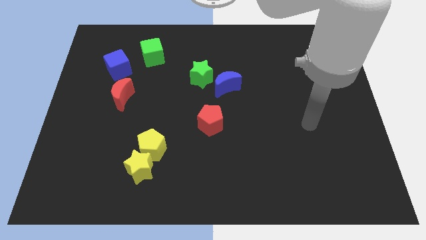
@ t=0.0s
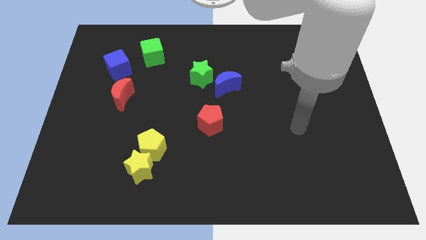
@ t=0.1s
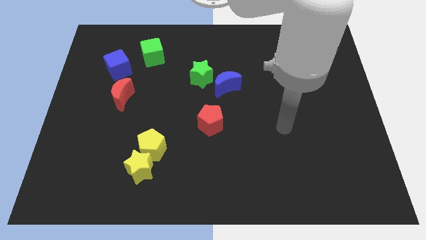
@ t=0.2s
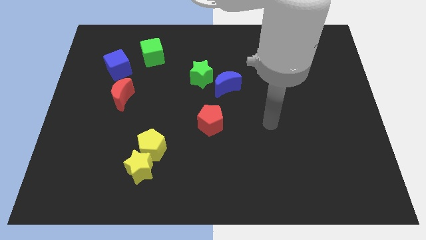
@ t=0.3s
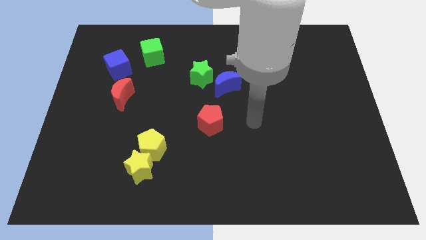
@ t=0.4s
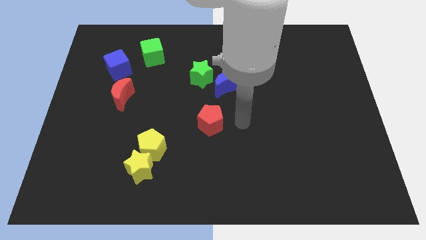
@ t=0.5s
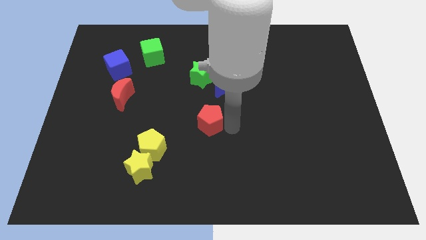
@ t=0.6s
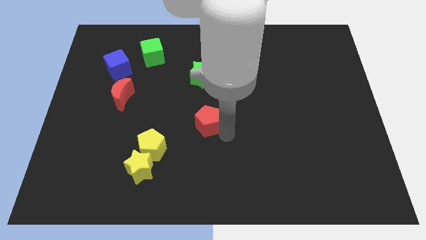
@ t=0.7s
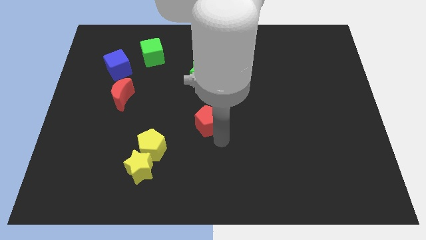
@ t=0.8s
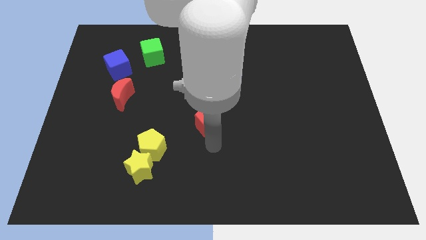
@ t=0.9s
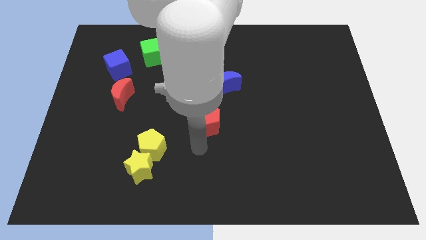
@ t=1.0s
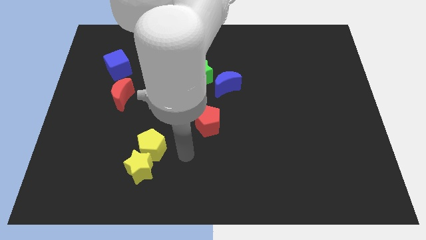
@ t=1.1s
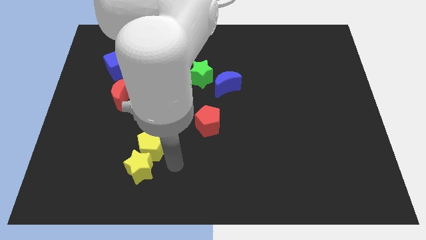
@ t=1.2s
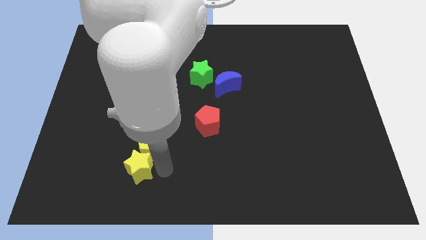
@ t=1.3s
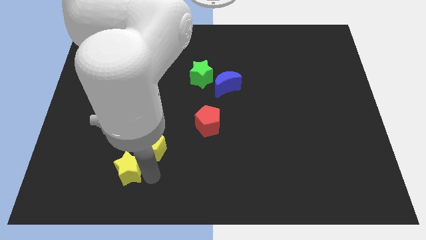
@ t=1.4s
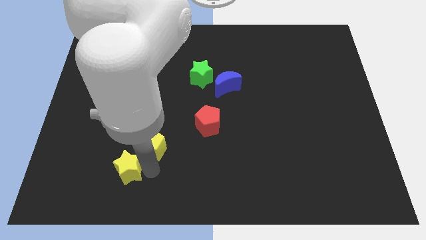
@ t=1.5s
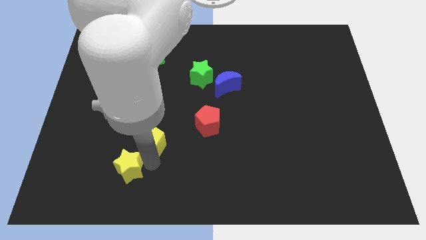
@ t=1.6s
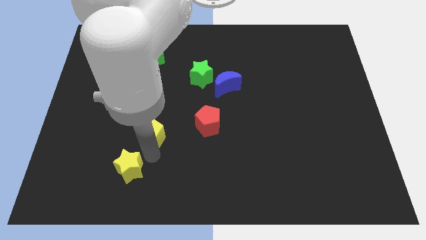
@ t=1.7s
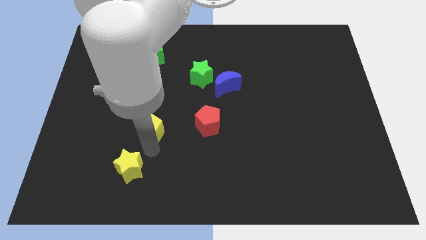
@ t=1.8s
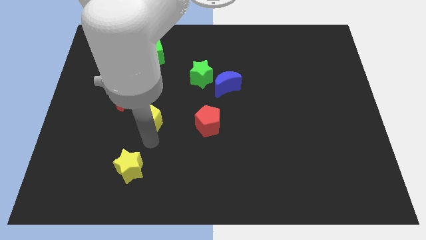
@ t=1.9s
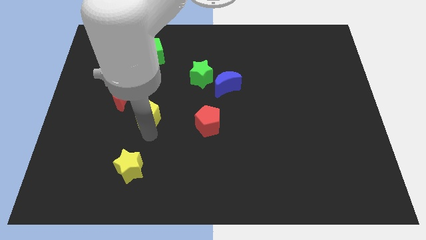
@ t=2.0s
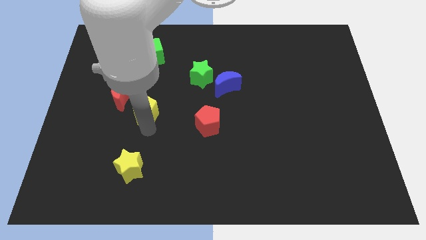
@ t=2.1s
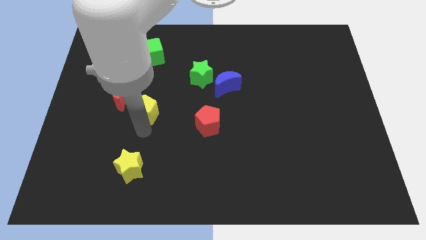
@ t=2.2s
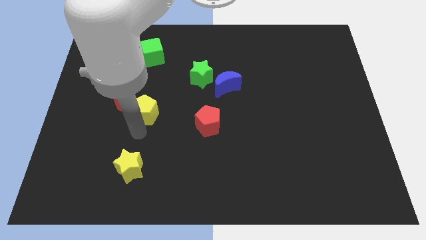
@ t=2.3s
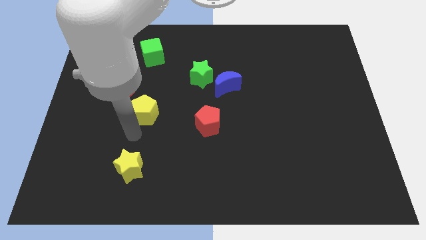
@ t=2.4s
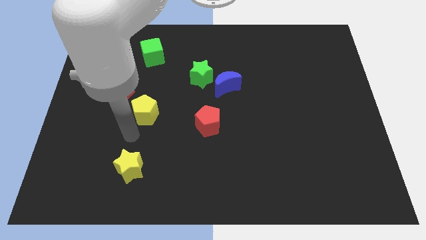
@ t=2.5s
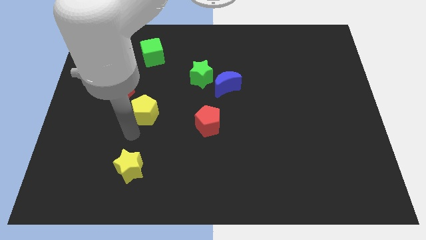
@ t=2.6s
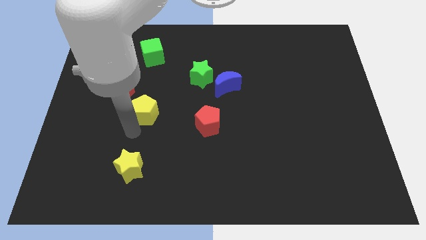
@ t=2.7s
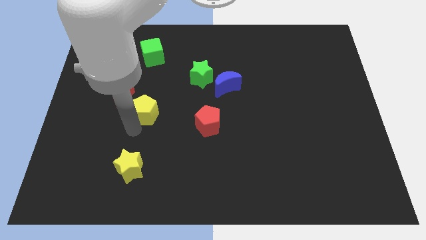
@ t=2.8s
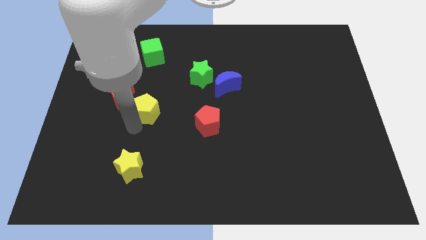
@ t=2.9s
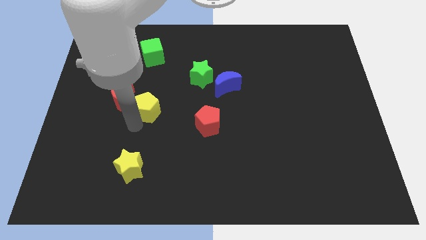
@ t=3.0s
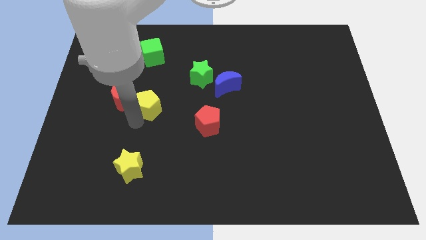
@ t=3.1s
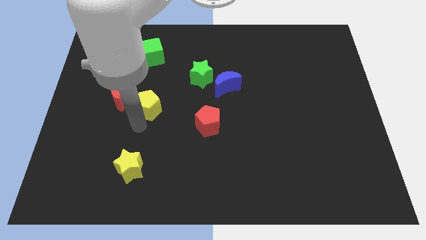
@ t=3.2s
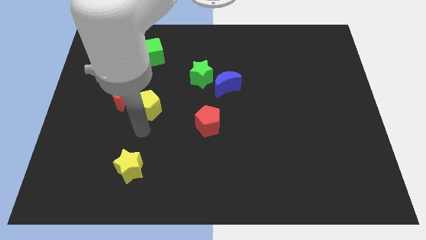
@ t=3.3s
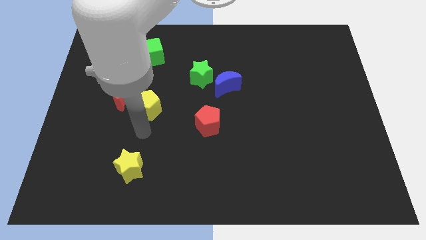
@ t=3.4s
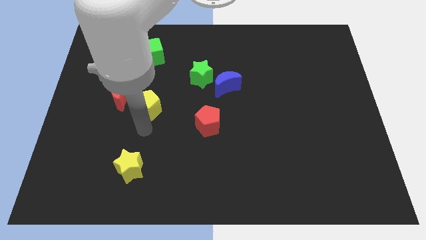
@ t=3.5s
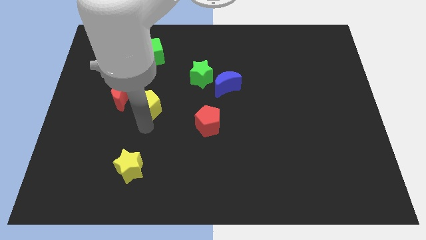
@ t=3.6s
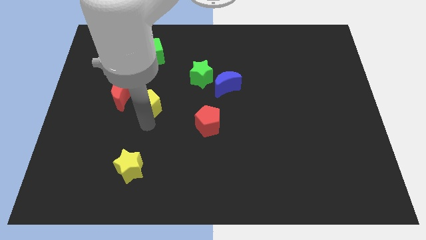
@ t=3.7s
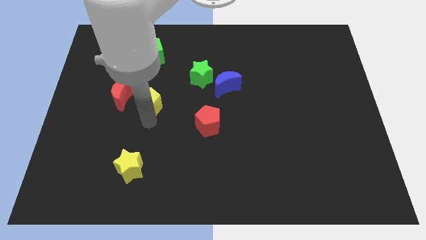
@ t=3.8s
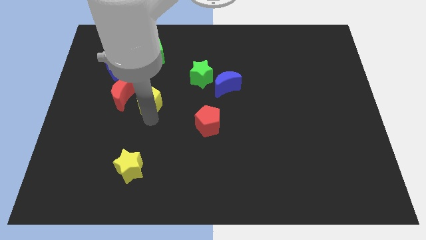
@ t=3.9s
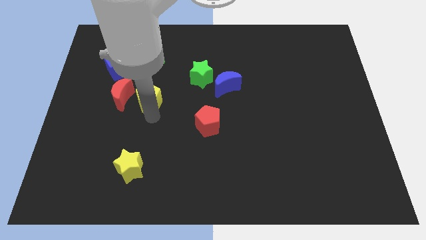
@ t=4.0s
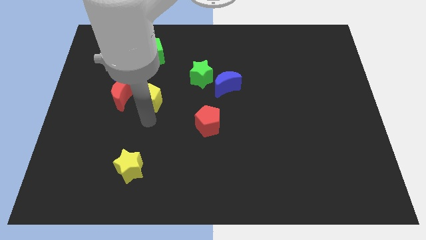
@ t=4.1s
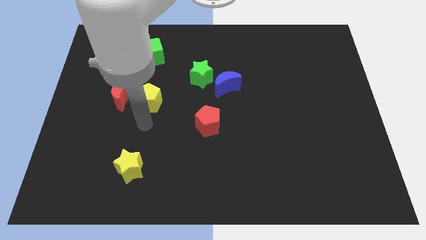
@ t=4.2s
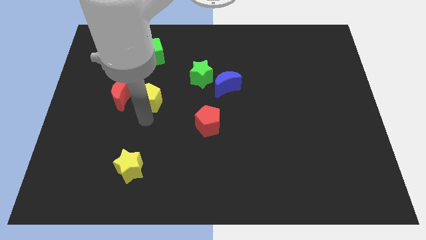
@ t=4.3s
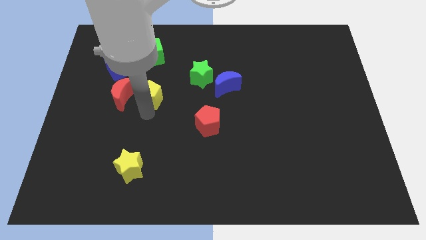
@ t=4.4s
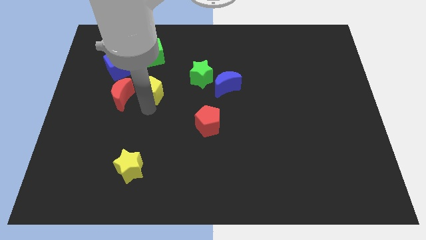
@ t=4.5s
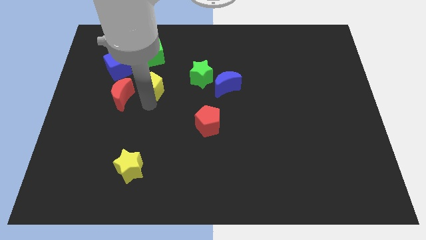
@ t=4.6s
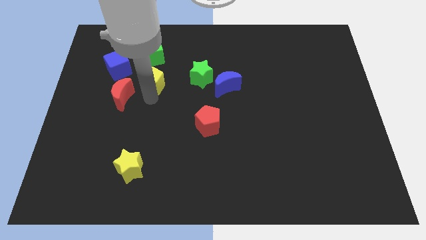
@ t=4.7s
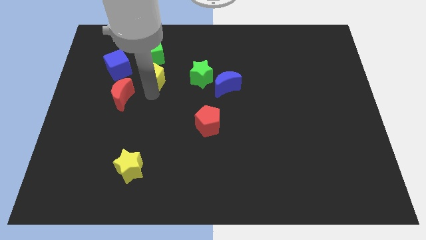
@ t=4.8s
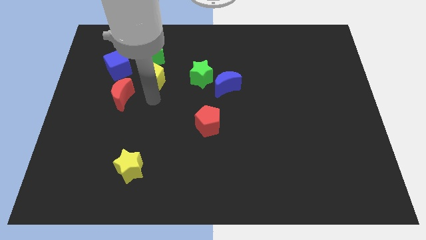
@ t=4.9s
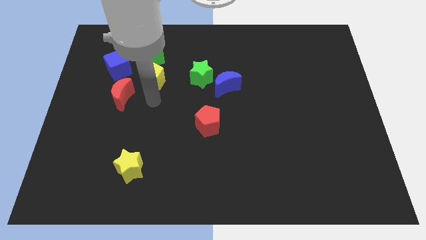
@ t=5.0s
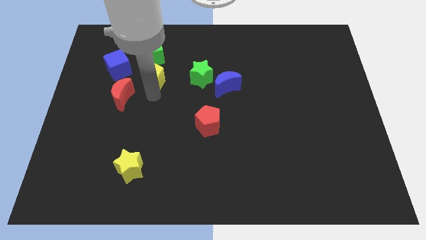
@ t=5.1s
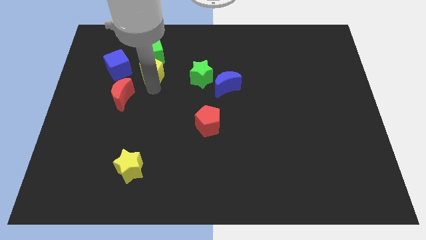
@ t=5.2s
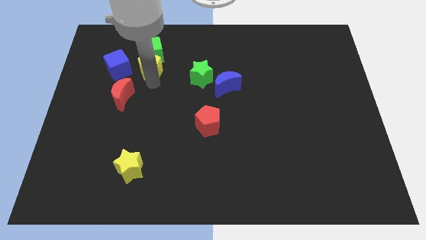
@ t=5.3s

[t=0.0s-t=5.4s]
put the yellow pentagon to the green cube

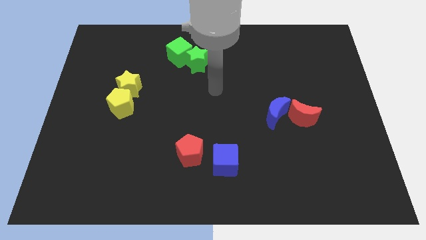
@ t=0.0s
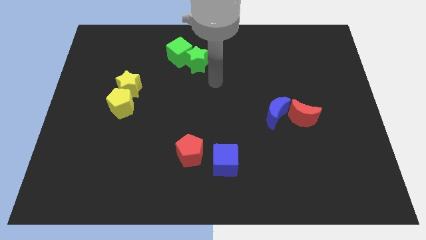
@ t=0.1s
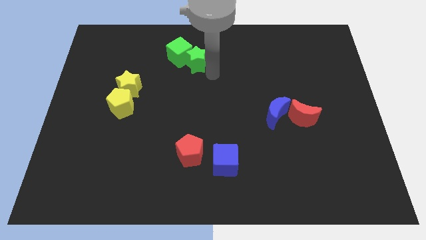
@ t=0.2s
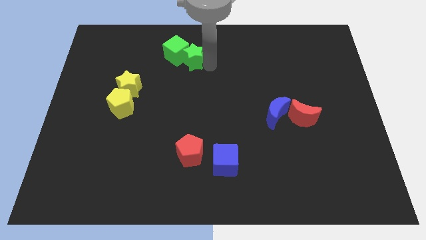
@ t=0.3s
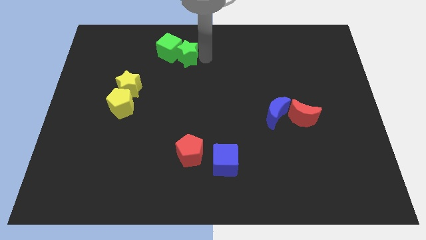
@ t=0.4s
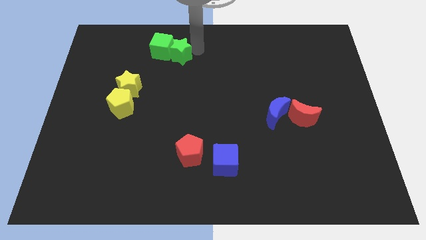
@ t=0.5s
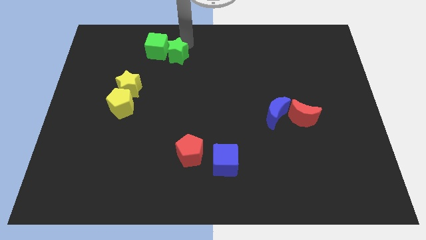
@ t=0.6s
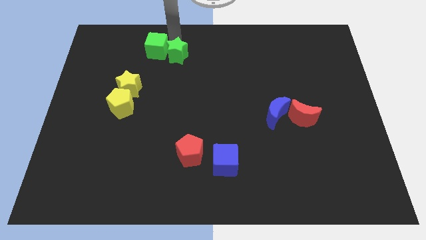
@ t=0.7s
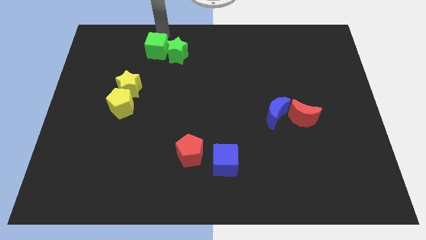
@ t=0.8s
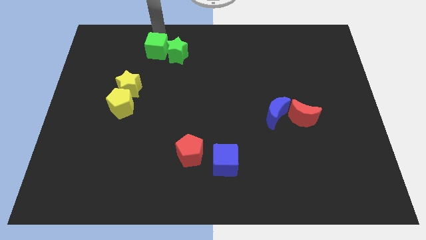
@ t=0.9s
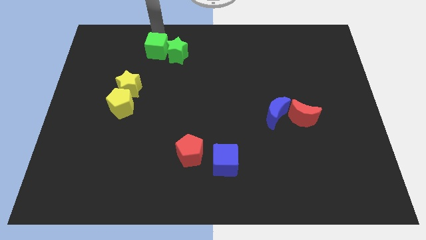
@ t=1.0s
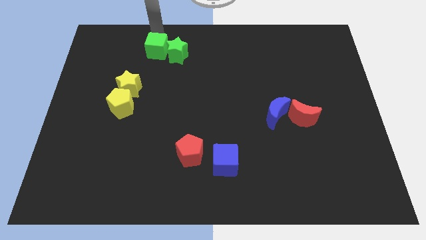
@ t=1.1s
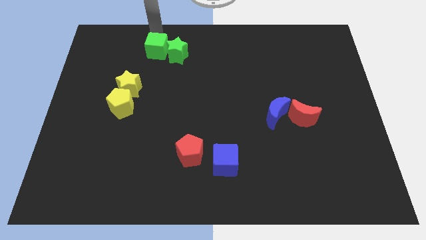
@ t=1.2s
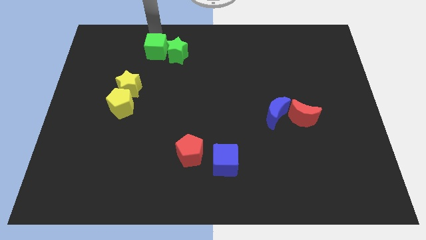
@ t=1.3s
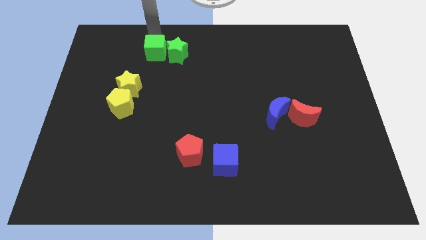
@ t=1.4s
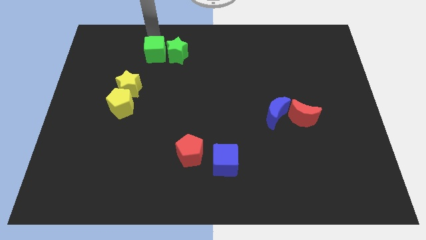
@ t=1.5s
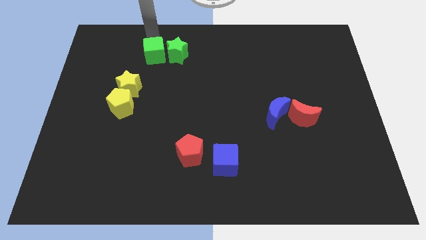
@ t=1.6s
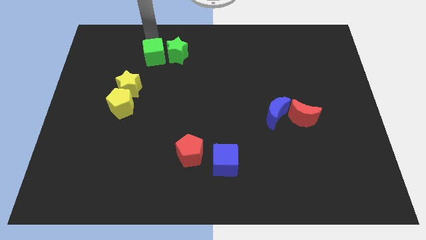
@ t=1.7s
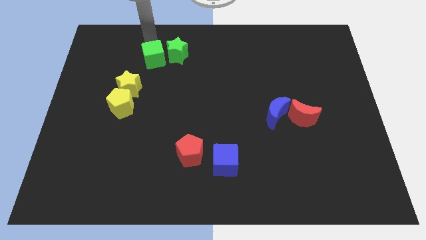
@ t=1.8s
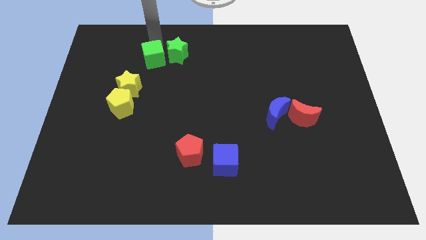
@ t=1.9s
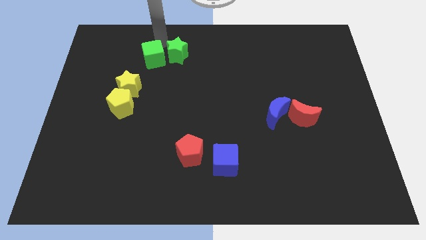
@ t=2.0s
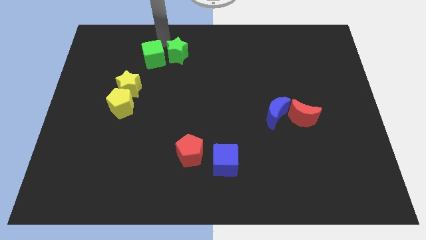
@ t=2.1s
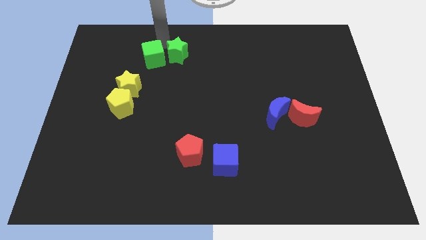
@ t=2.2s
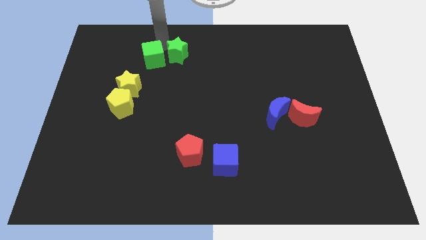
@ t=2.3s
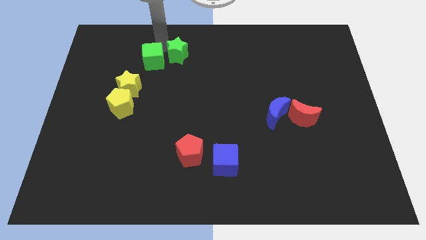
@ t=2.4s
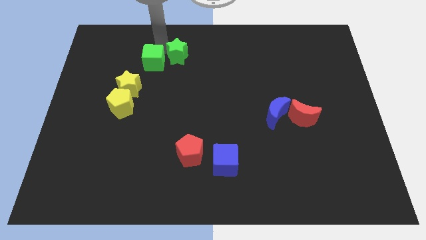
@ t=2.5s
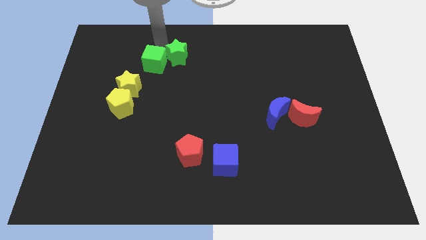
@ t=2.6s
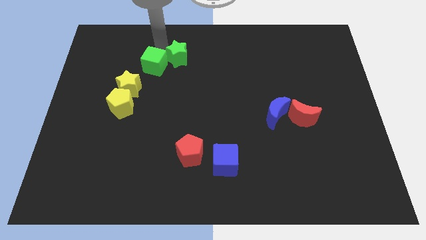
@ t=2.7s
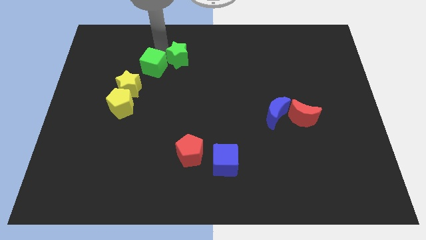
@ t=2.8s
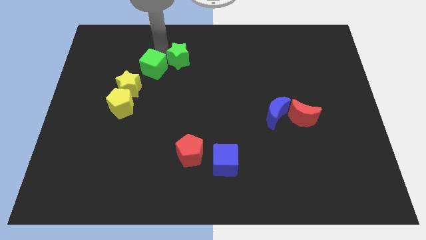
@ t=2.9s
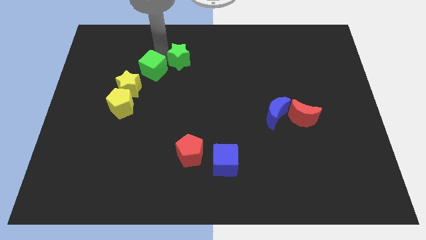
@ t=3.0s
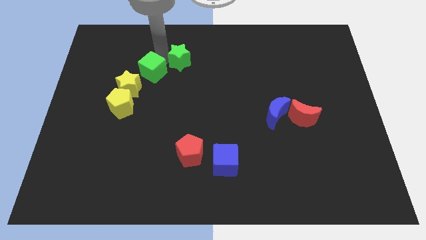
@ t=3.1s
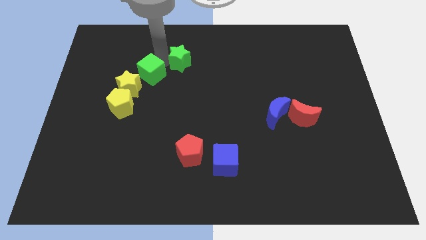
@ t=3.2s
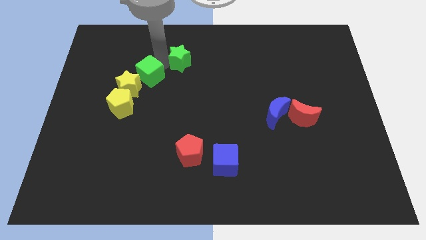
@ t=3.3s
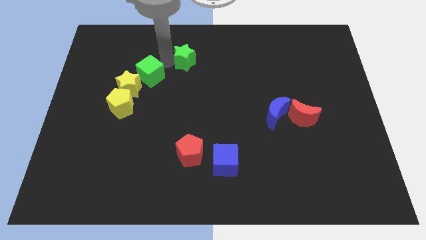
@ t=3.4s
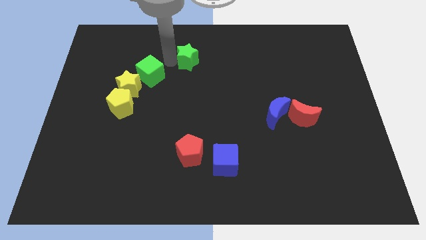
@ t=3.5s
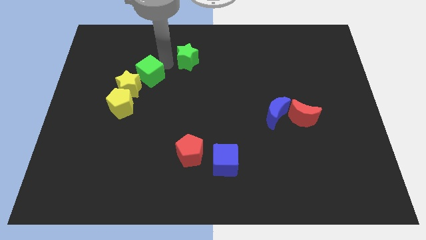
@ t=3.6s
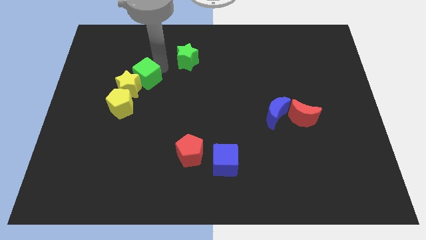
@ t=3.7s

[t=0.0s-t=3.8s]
push the green cube next to the yellow star
